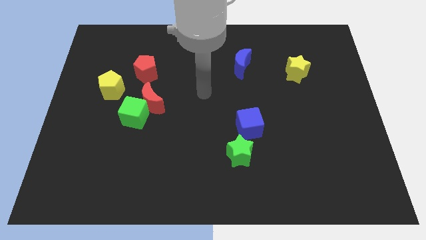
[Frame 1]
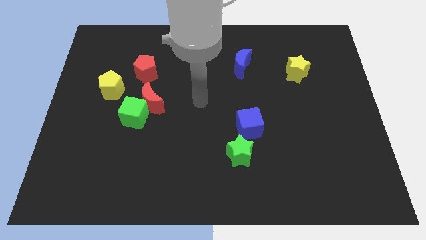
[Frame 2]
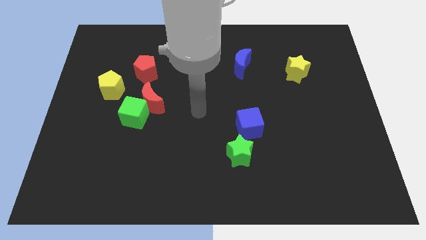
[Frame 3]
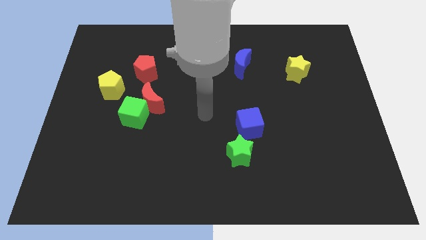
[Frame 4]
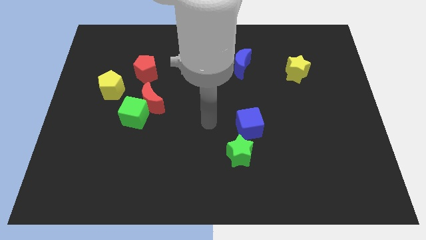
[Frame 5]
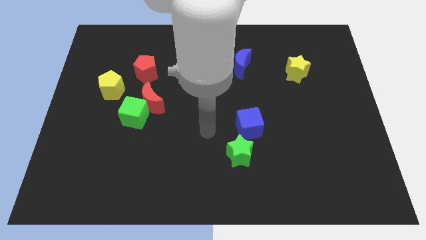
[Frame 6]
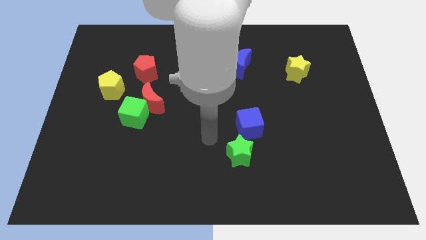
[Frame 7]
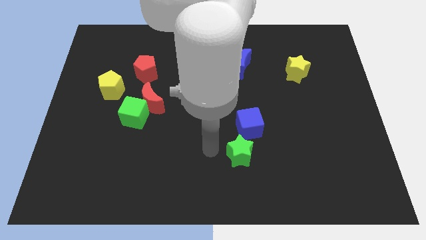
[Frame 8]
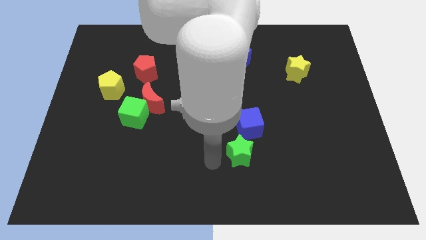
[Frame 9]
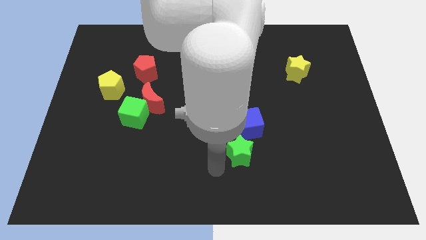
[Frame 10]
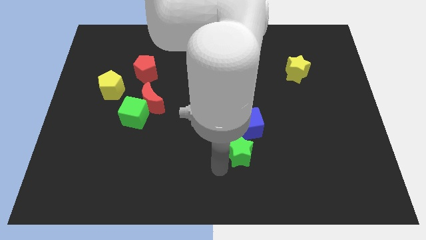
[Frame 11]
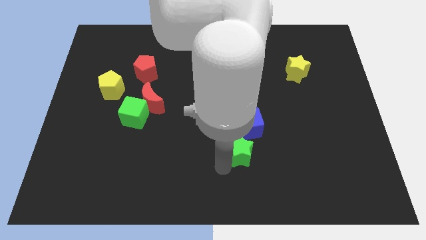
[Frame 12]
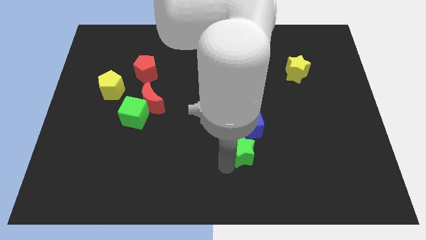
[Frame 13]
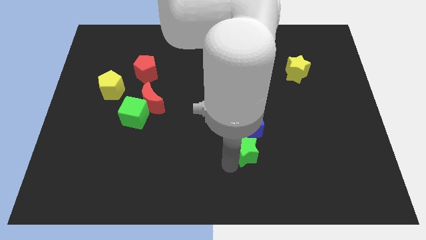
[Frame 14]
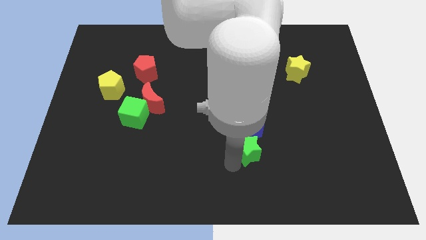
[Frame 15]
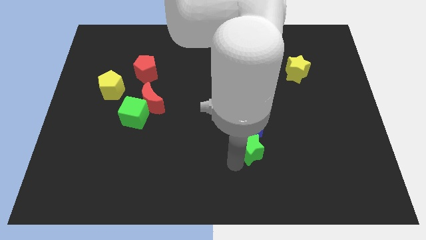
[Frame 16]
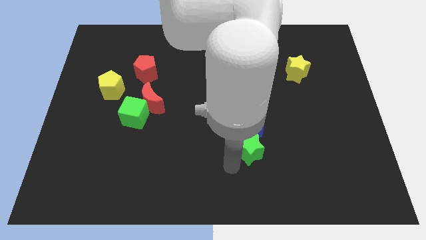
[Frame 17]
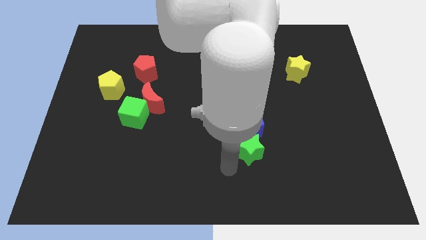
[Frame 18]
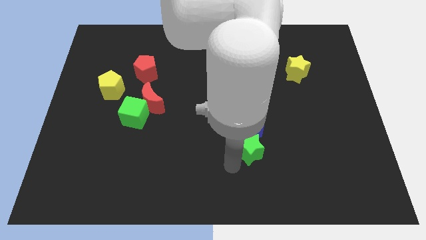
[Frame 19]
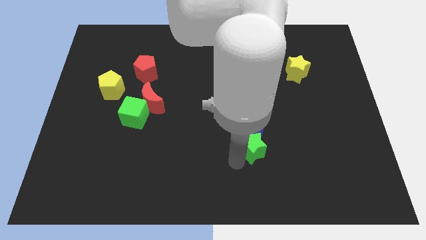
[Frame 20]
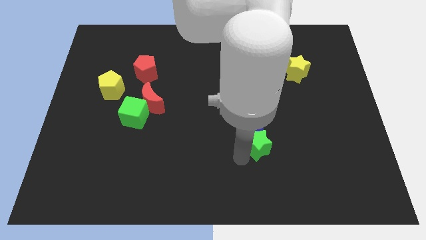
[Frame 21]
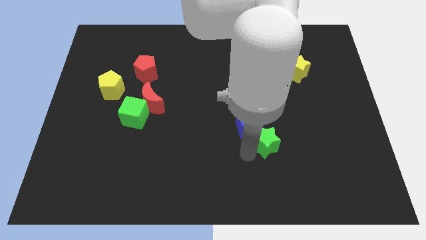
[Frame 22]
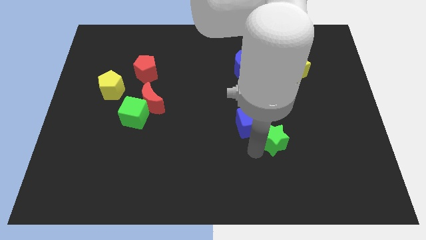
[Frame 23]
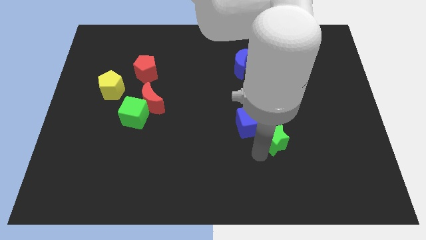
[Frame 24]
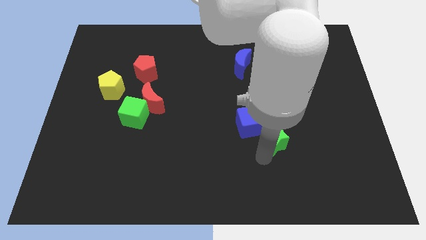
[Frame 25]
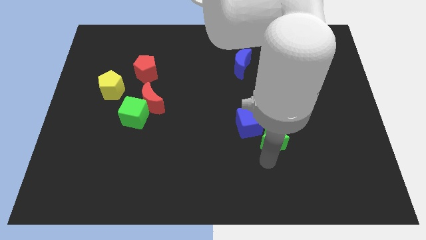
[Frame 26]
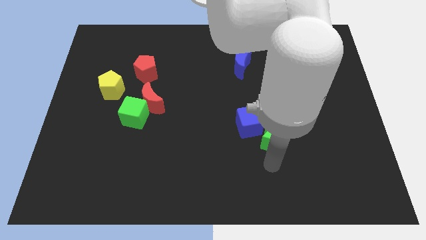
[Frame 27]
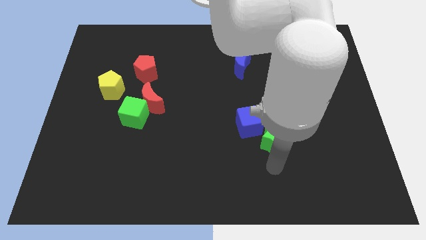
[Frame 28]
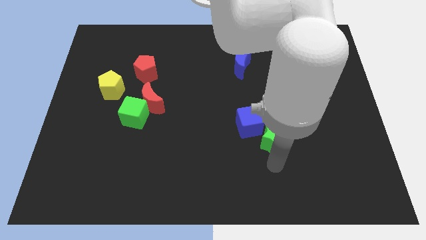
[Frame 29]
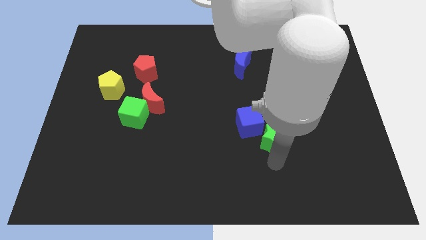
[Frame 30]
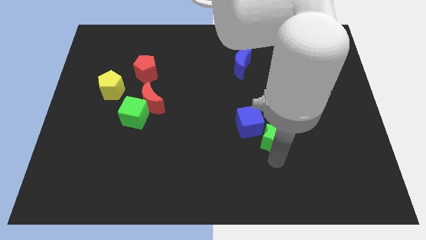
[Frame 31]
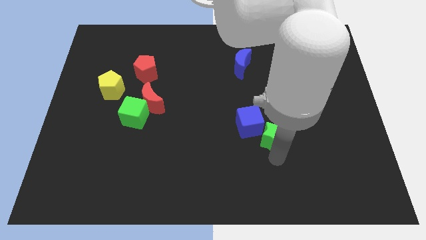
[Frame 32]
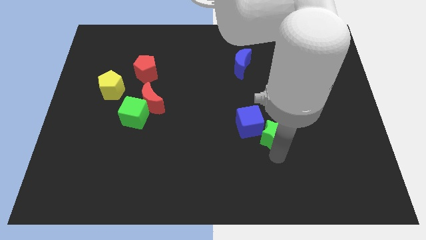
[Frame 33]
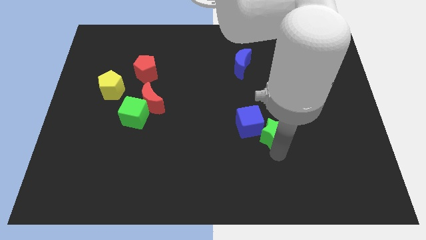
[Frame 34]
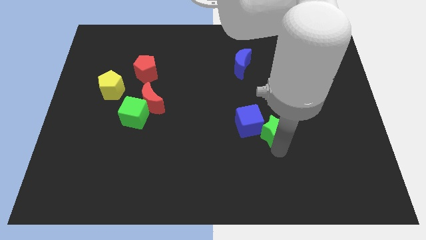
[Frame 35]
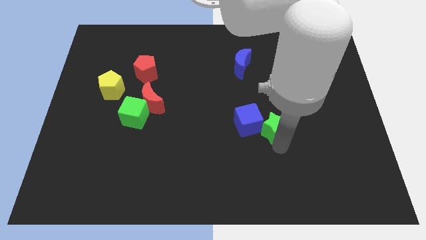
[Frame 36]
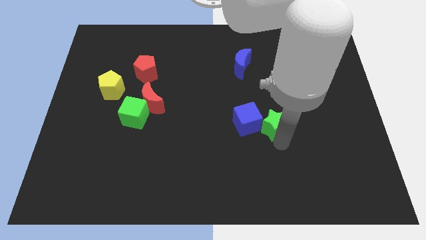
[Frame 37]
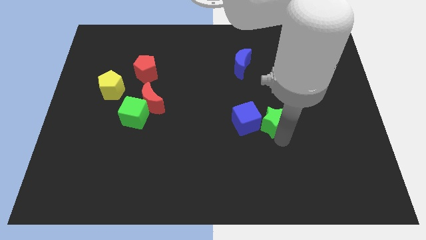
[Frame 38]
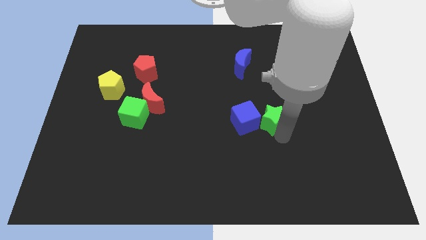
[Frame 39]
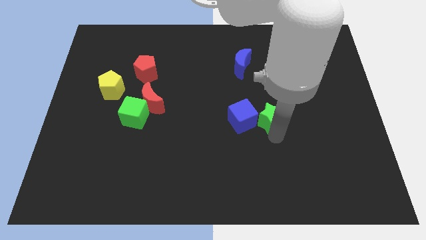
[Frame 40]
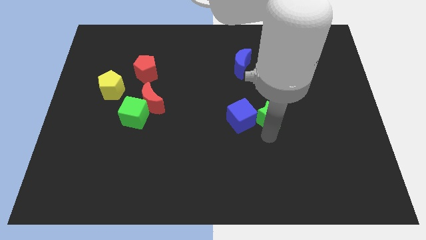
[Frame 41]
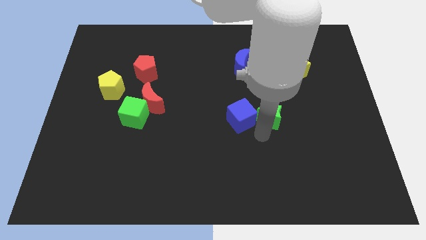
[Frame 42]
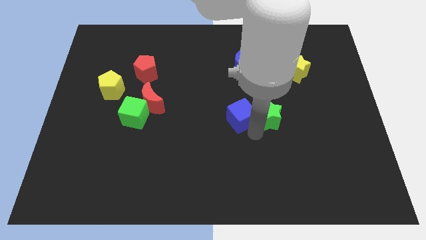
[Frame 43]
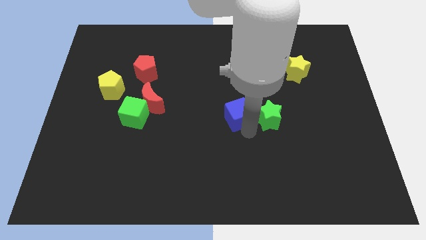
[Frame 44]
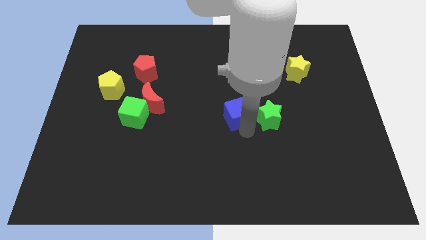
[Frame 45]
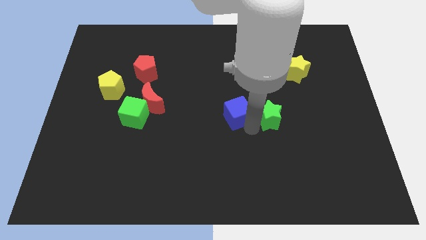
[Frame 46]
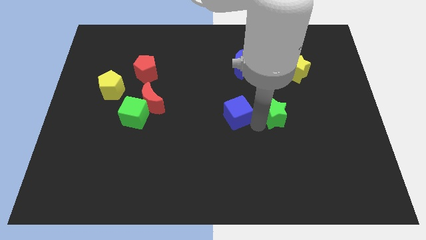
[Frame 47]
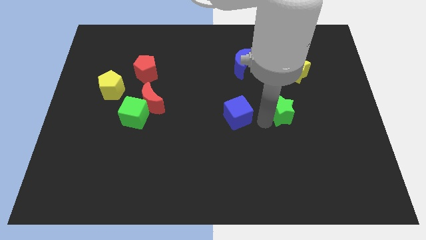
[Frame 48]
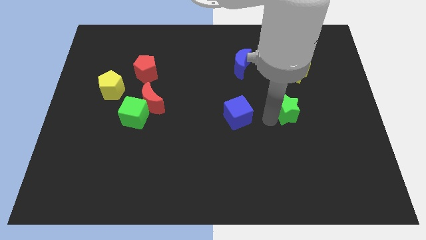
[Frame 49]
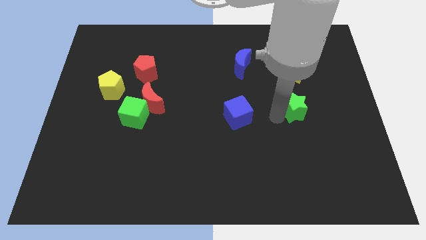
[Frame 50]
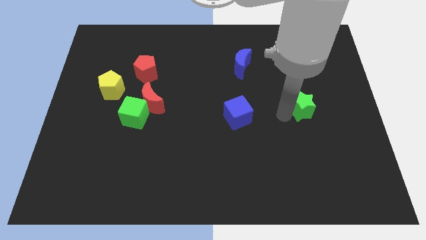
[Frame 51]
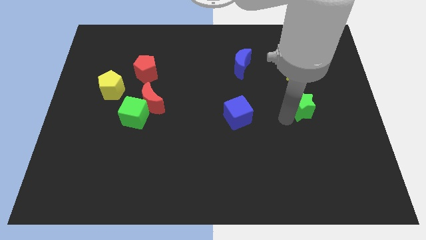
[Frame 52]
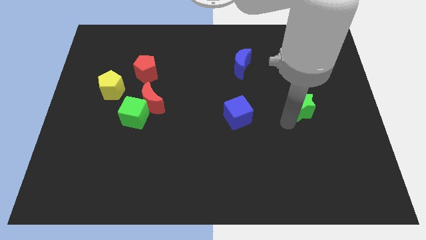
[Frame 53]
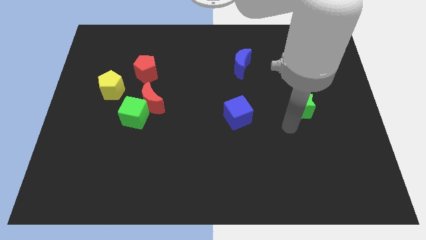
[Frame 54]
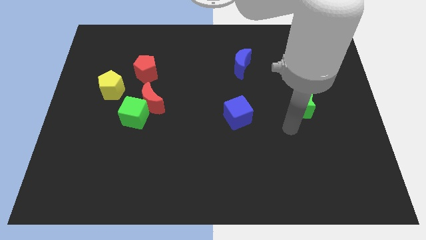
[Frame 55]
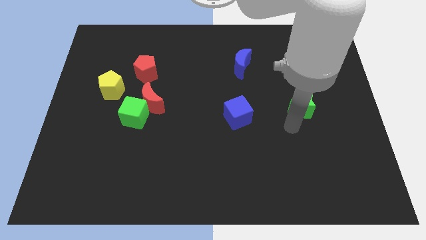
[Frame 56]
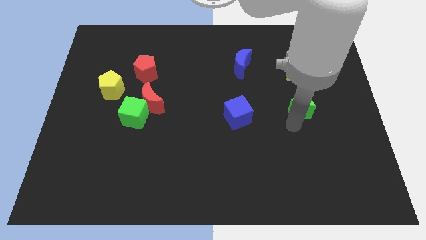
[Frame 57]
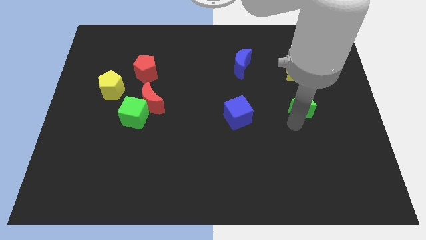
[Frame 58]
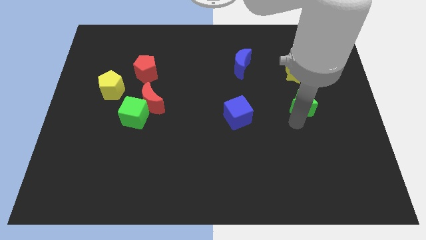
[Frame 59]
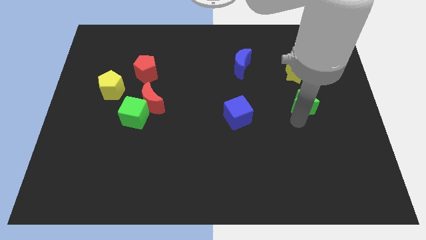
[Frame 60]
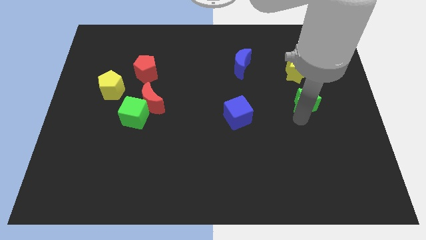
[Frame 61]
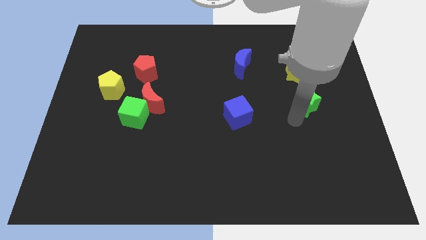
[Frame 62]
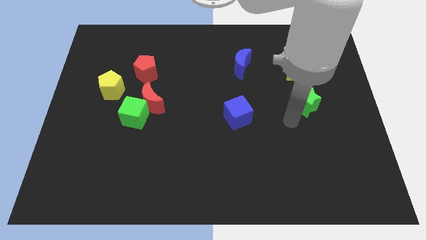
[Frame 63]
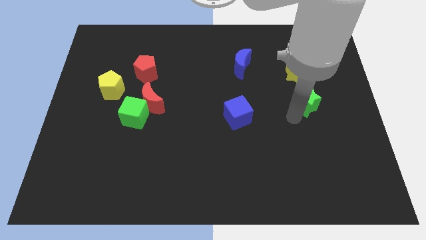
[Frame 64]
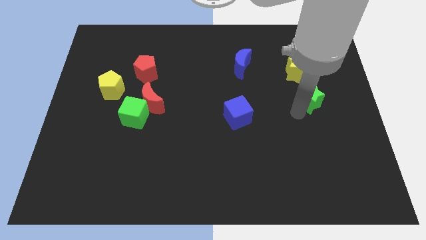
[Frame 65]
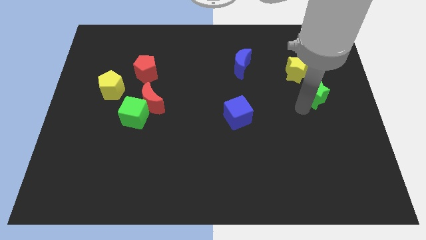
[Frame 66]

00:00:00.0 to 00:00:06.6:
push the green star to the bottom right of the yellow star
